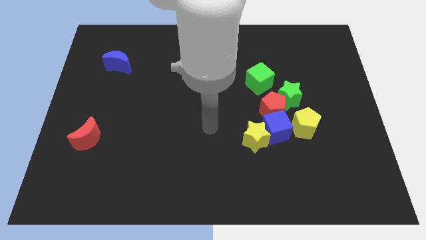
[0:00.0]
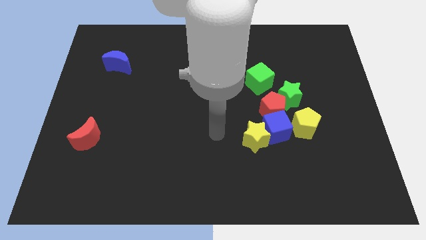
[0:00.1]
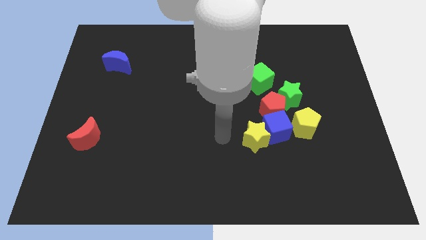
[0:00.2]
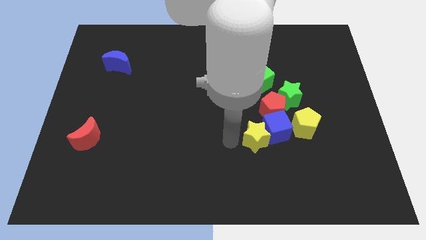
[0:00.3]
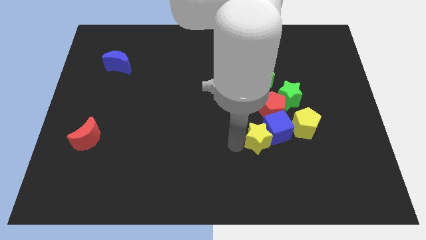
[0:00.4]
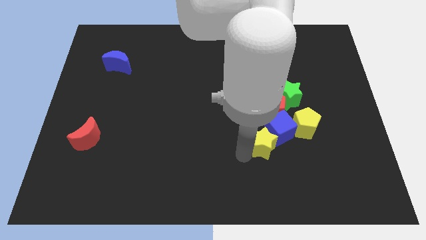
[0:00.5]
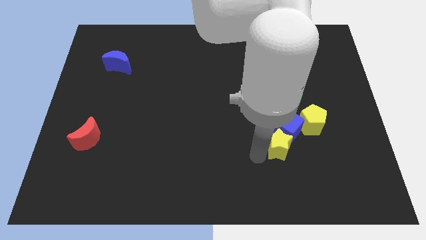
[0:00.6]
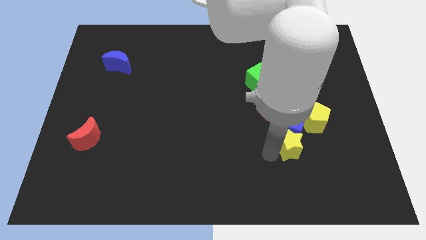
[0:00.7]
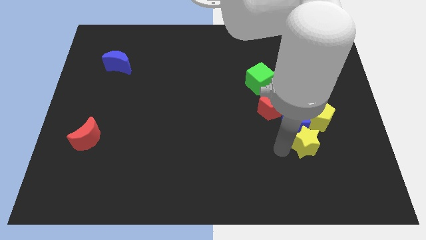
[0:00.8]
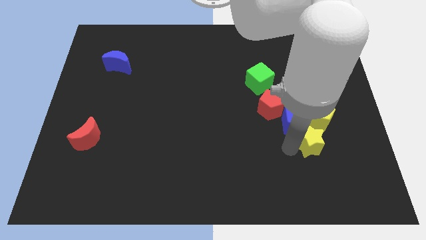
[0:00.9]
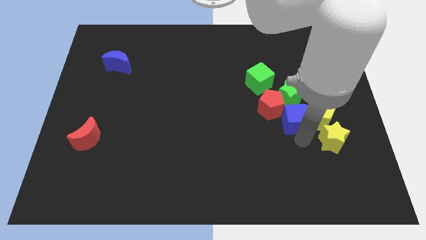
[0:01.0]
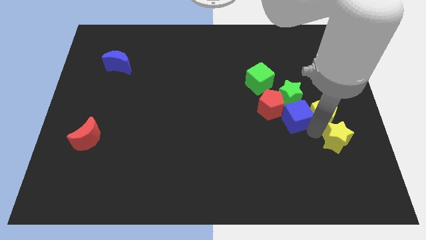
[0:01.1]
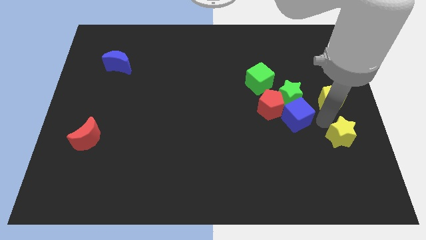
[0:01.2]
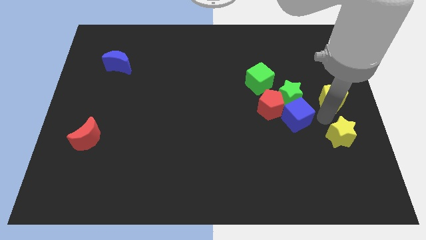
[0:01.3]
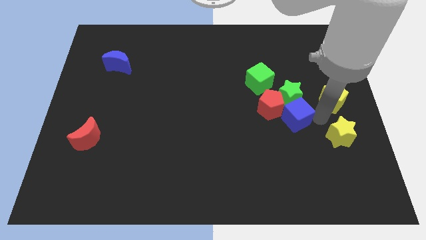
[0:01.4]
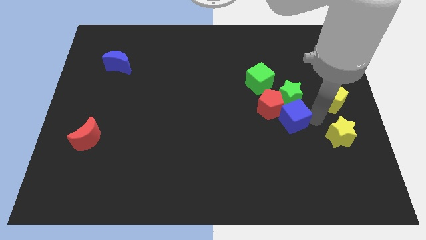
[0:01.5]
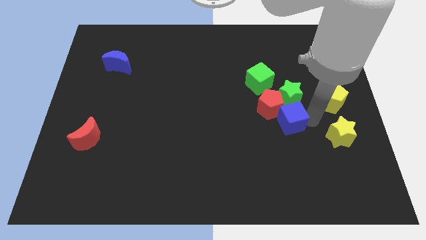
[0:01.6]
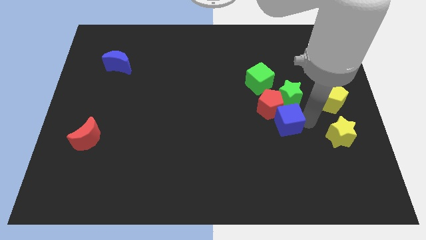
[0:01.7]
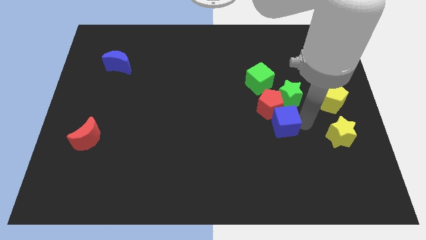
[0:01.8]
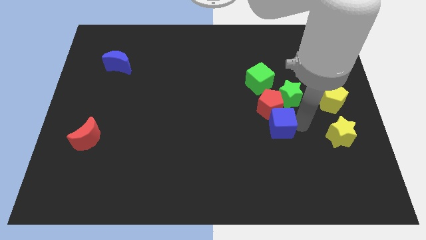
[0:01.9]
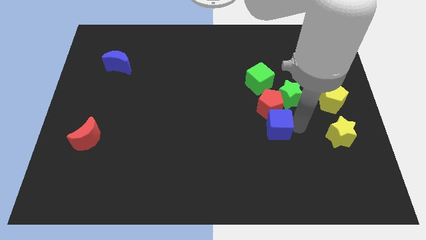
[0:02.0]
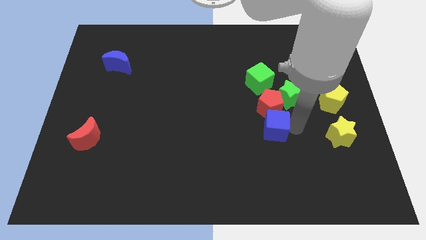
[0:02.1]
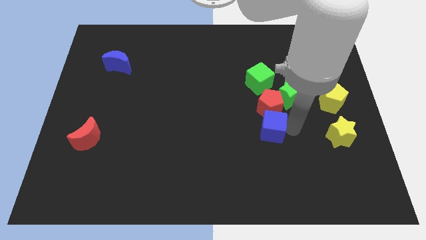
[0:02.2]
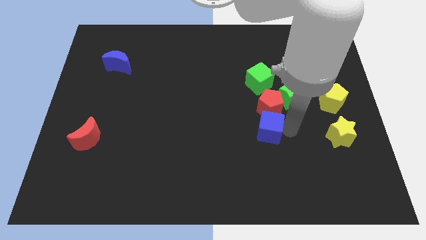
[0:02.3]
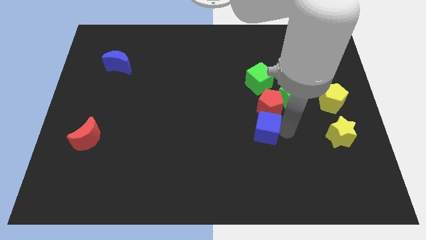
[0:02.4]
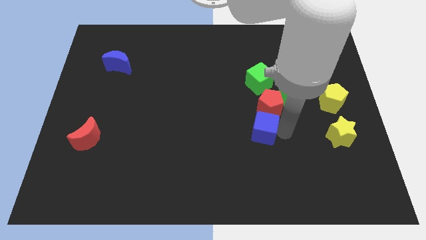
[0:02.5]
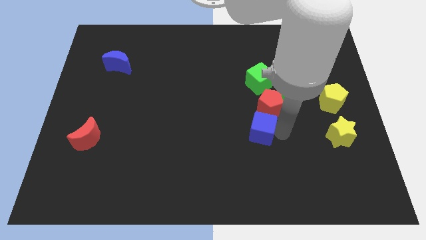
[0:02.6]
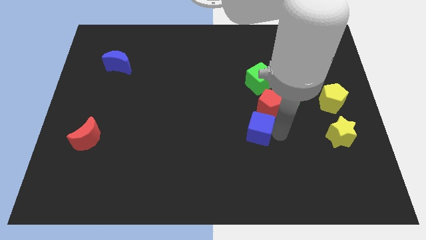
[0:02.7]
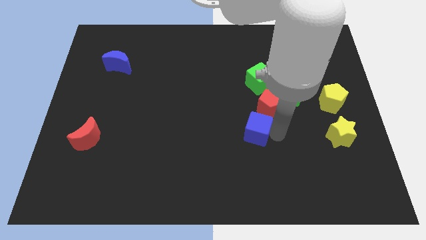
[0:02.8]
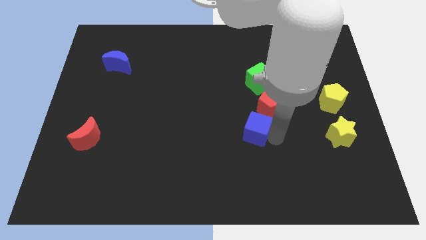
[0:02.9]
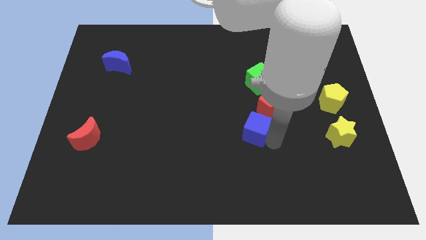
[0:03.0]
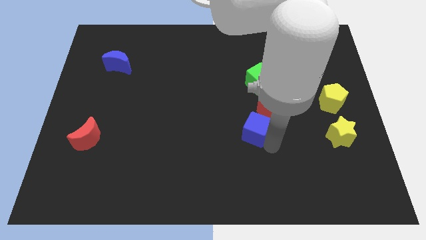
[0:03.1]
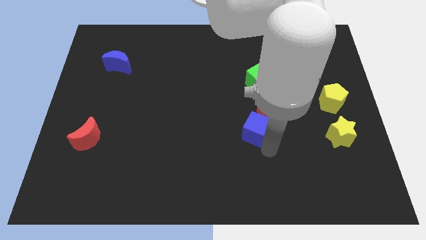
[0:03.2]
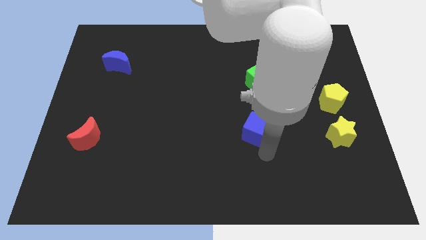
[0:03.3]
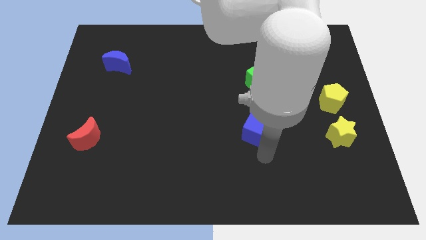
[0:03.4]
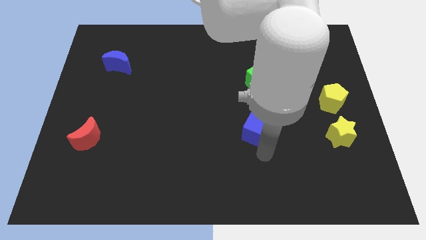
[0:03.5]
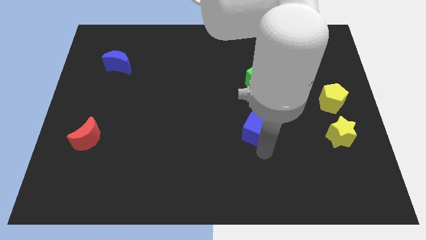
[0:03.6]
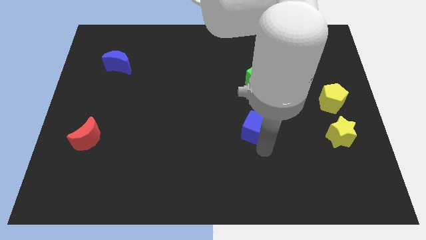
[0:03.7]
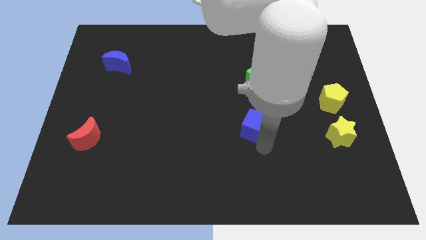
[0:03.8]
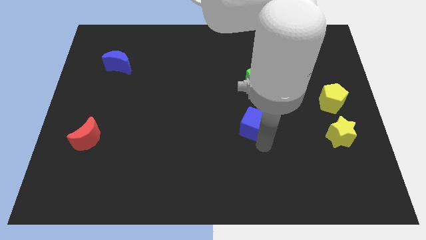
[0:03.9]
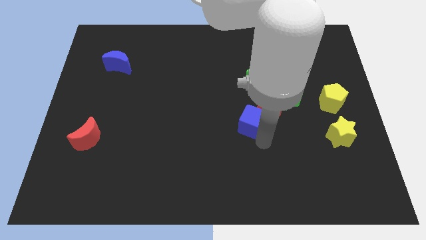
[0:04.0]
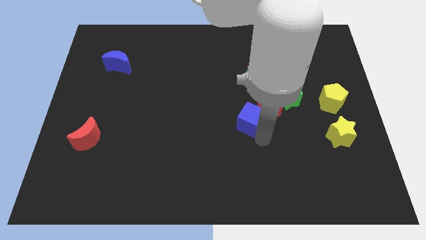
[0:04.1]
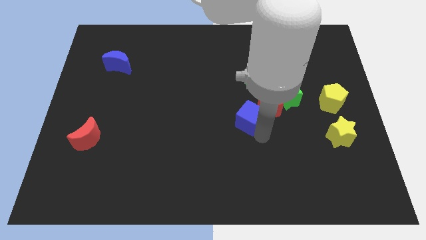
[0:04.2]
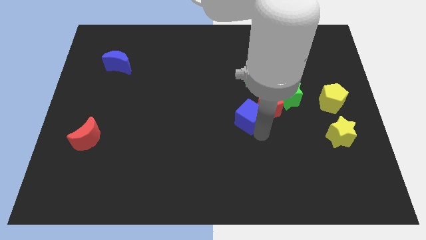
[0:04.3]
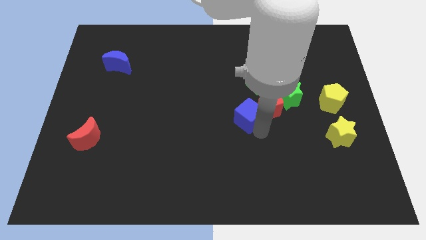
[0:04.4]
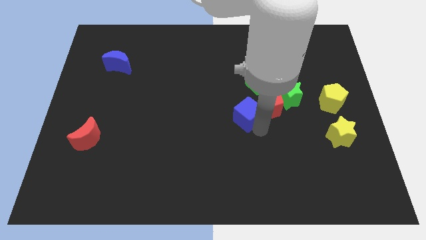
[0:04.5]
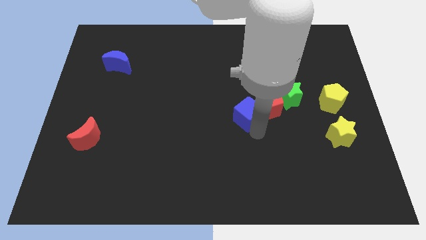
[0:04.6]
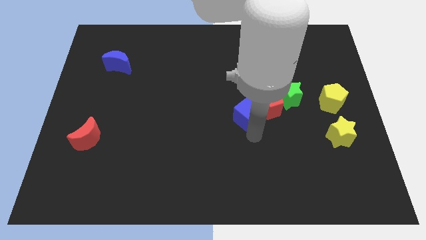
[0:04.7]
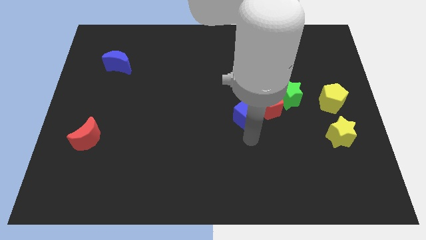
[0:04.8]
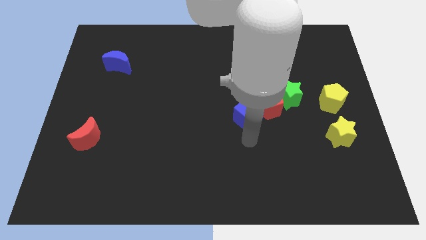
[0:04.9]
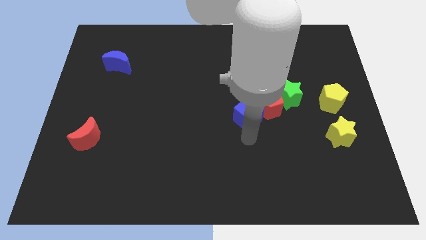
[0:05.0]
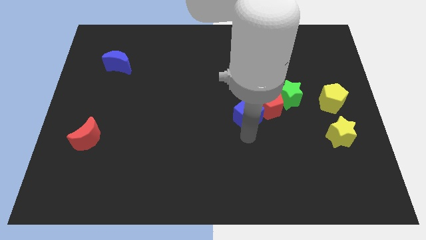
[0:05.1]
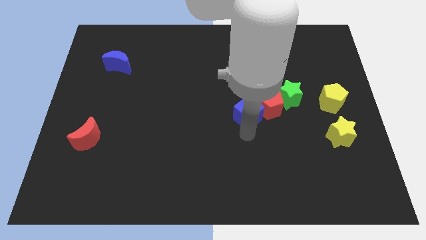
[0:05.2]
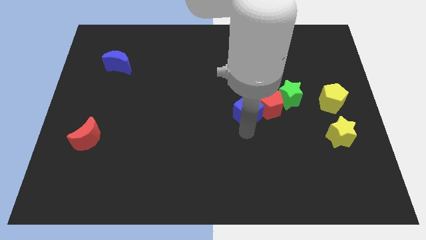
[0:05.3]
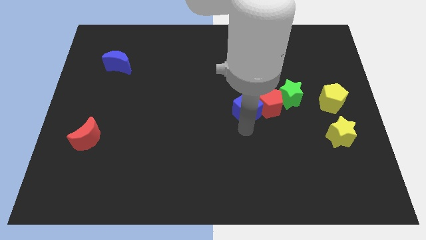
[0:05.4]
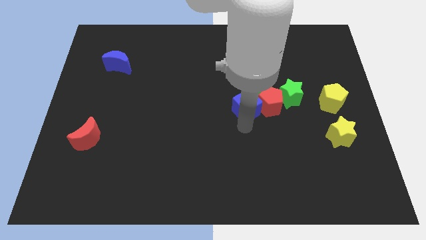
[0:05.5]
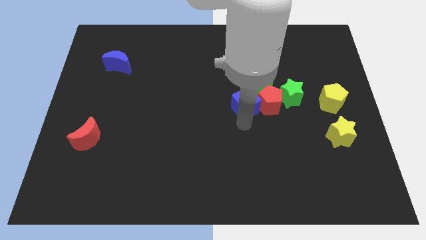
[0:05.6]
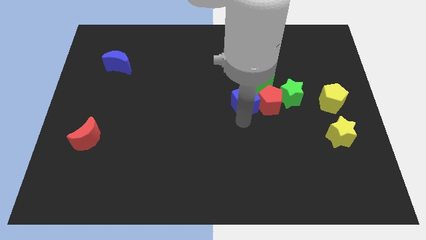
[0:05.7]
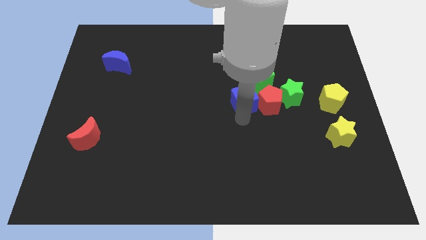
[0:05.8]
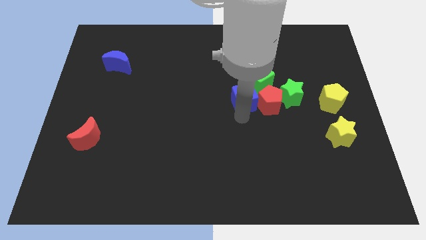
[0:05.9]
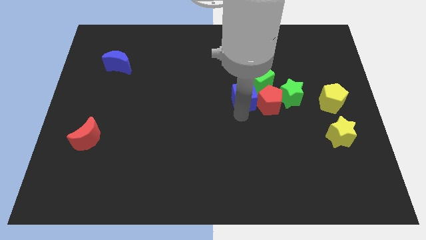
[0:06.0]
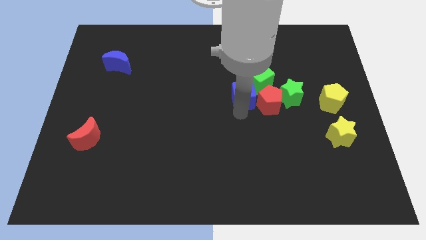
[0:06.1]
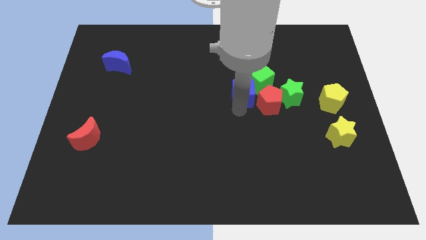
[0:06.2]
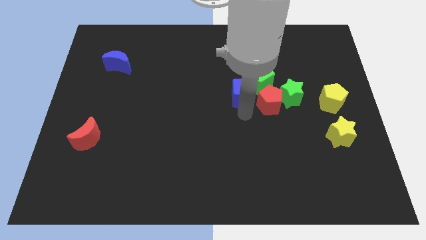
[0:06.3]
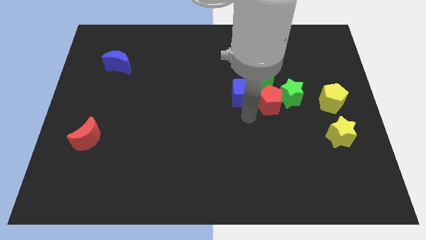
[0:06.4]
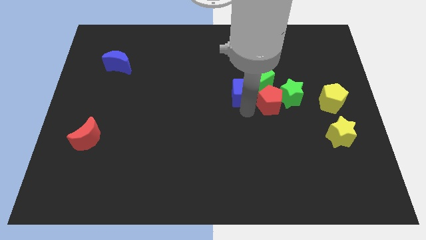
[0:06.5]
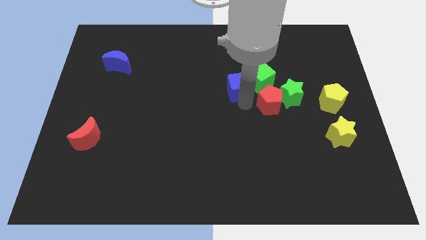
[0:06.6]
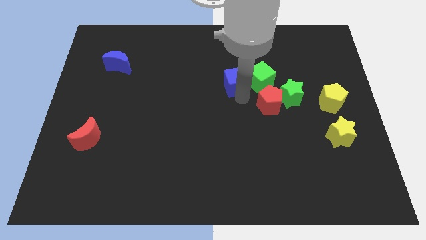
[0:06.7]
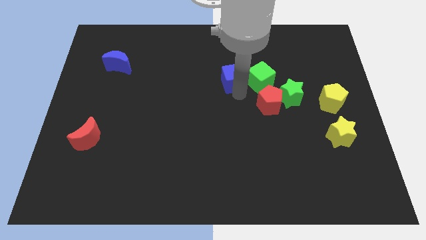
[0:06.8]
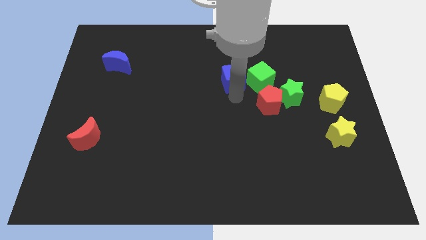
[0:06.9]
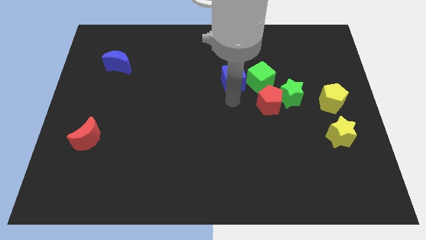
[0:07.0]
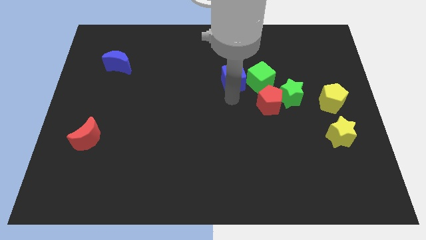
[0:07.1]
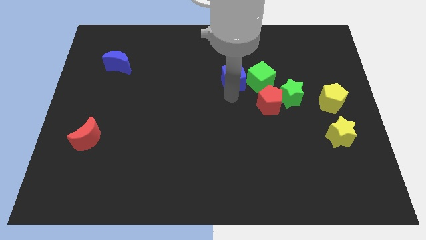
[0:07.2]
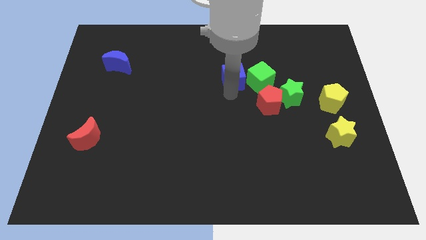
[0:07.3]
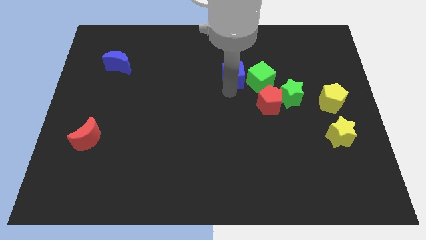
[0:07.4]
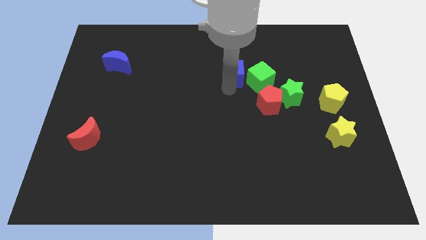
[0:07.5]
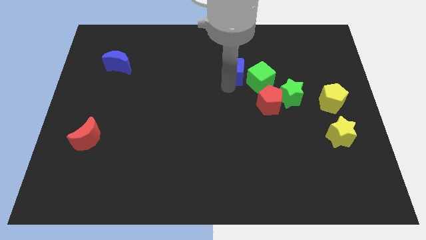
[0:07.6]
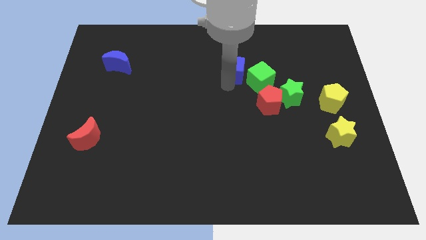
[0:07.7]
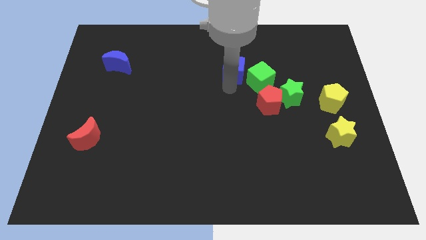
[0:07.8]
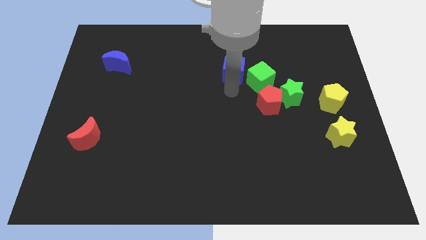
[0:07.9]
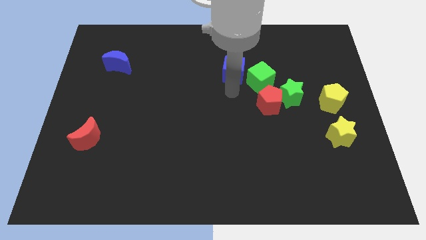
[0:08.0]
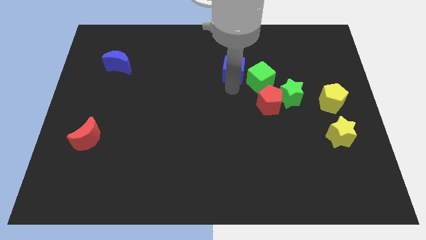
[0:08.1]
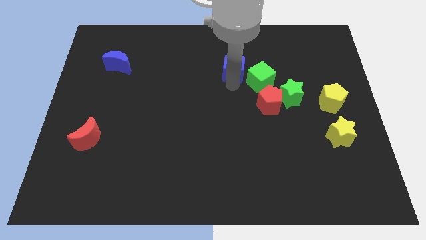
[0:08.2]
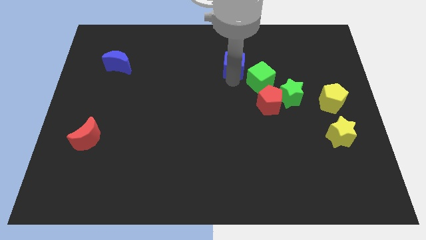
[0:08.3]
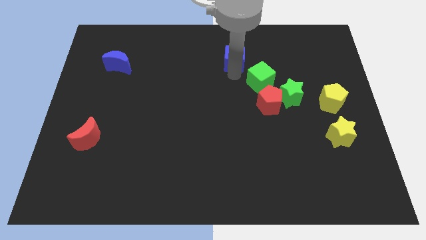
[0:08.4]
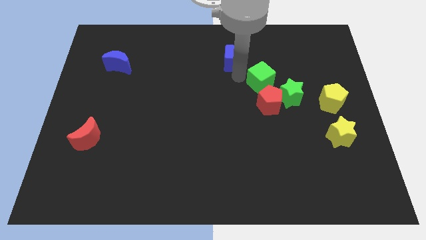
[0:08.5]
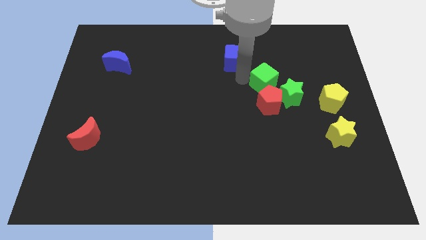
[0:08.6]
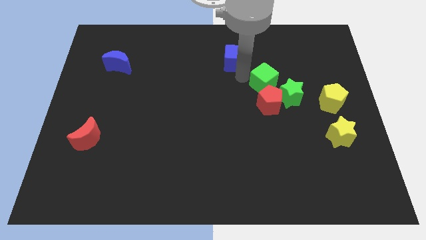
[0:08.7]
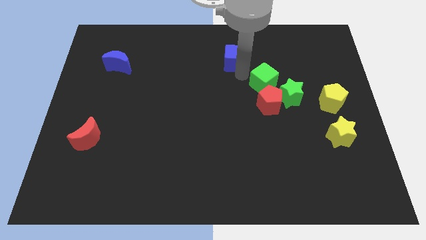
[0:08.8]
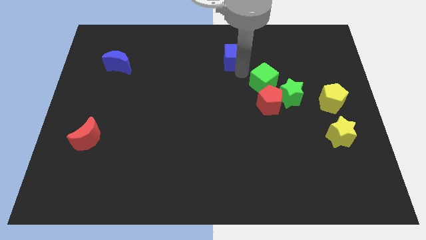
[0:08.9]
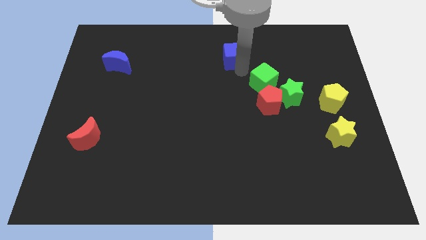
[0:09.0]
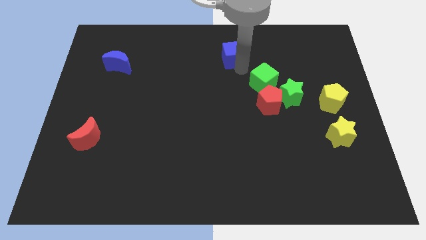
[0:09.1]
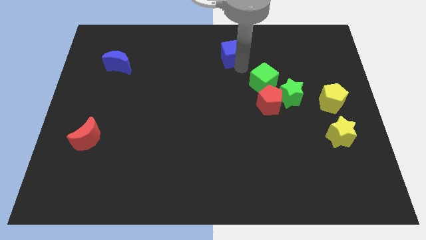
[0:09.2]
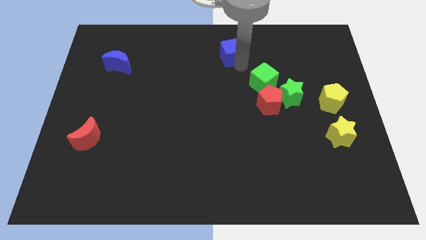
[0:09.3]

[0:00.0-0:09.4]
slide the blue cube to the top side
